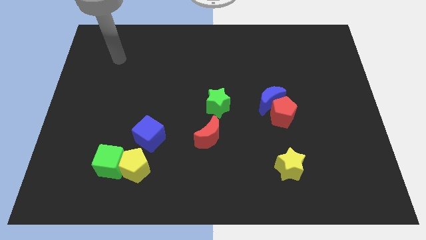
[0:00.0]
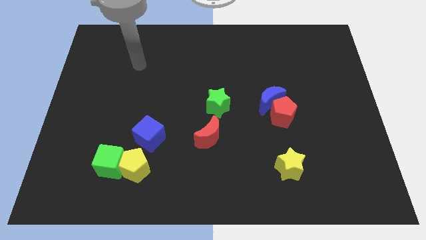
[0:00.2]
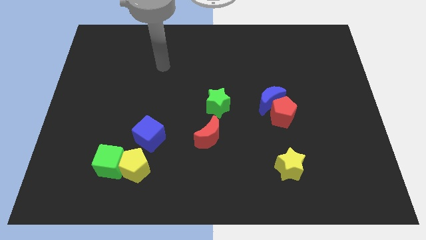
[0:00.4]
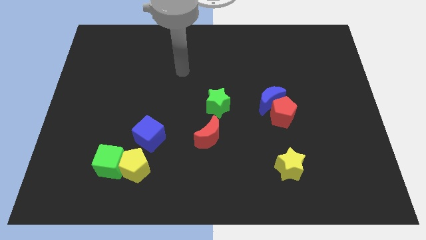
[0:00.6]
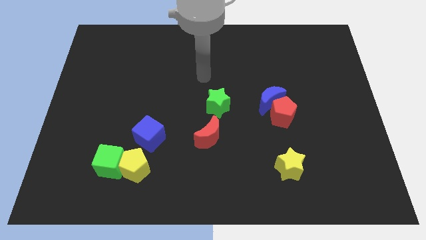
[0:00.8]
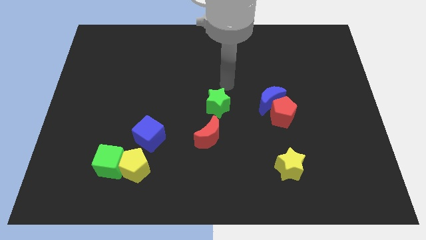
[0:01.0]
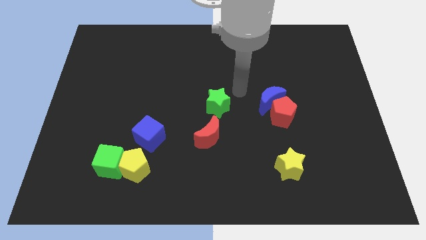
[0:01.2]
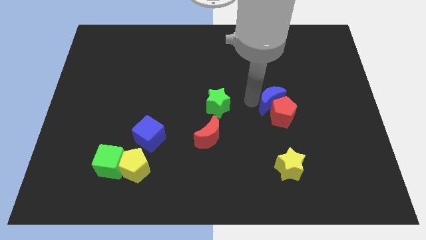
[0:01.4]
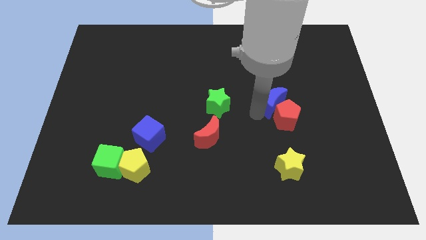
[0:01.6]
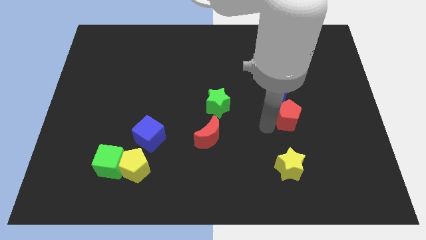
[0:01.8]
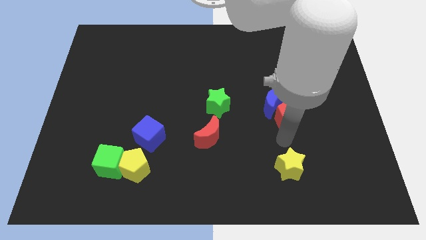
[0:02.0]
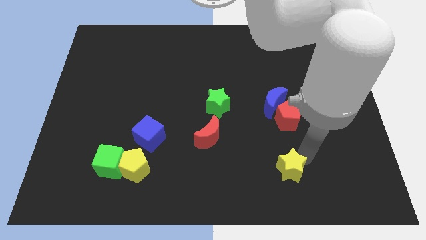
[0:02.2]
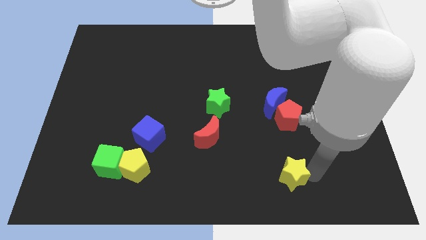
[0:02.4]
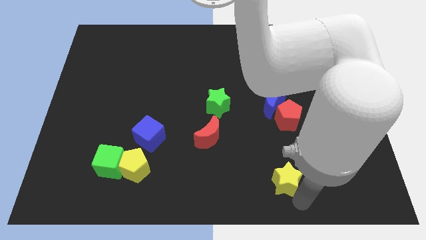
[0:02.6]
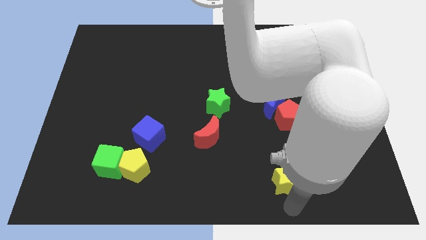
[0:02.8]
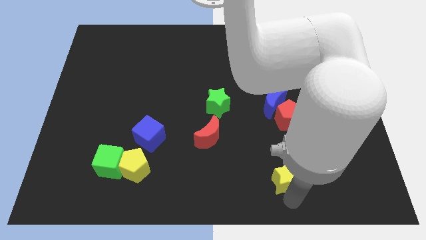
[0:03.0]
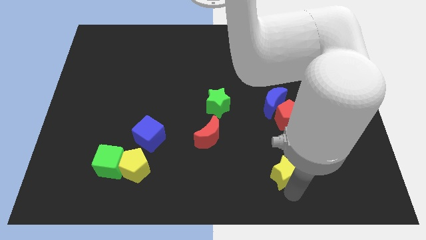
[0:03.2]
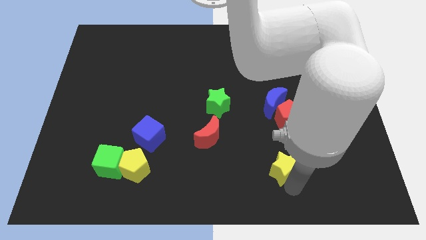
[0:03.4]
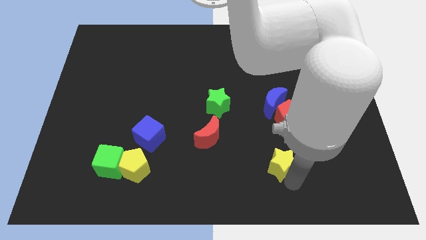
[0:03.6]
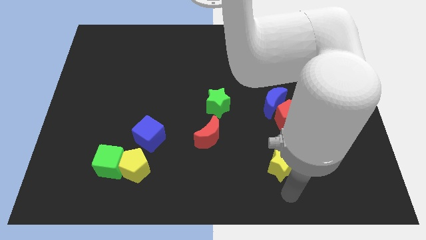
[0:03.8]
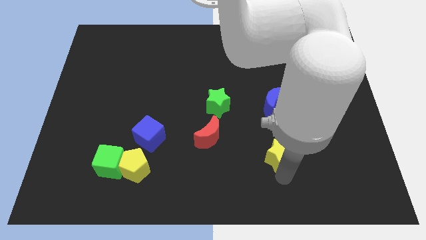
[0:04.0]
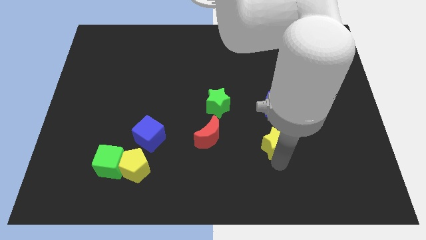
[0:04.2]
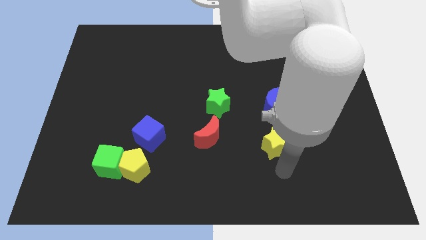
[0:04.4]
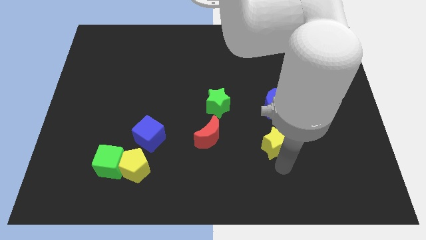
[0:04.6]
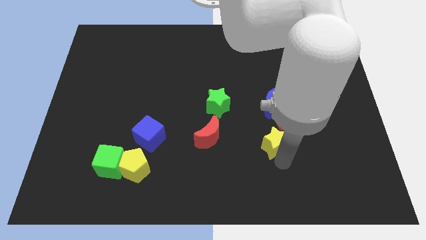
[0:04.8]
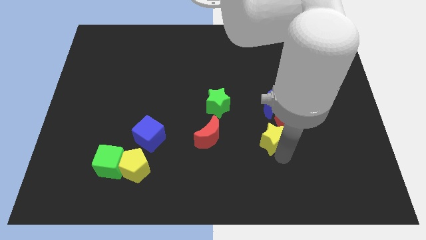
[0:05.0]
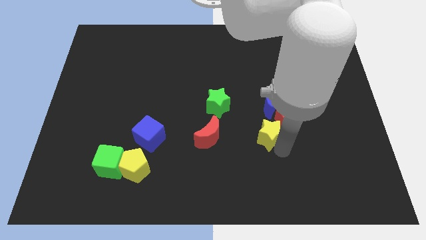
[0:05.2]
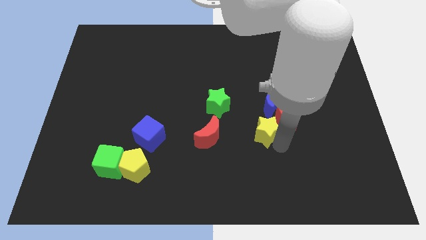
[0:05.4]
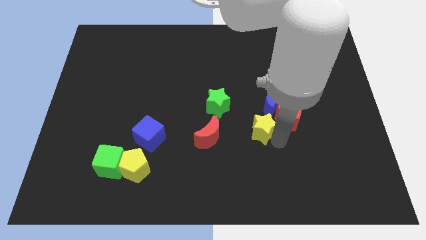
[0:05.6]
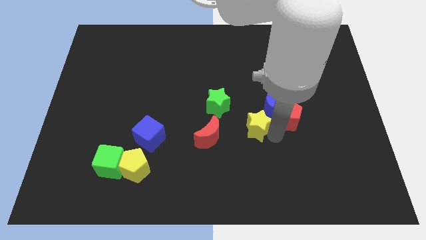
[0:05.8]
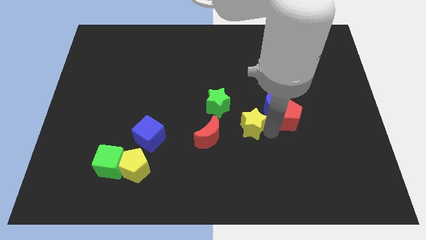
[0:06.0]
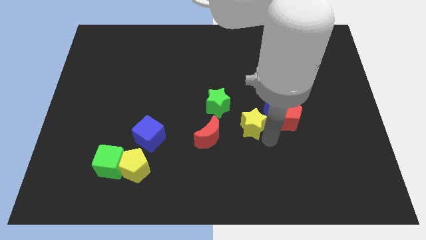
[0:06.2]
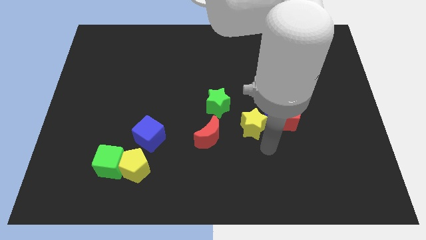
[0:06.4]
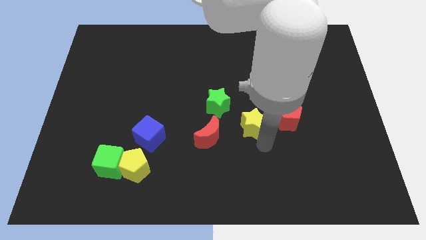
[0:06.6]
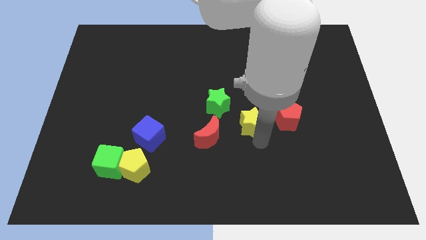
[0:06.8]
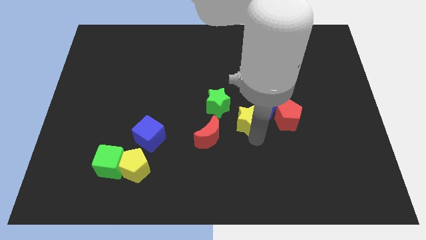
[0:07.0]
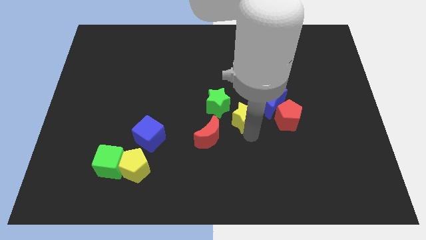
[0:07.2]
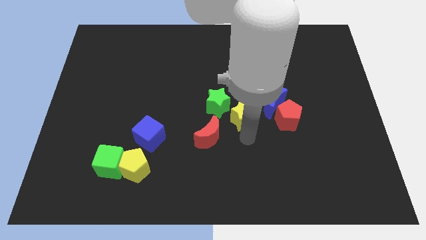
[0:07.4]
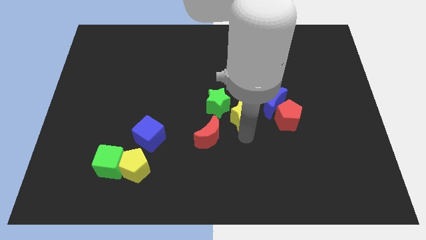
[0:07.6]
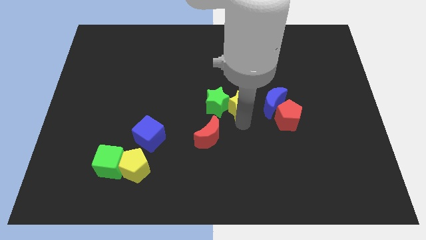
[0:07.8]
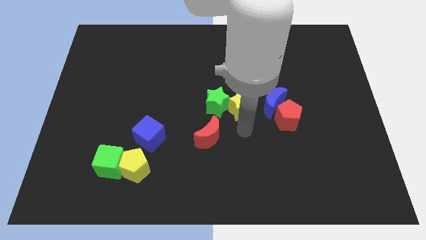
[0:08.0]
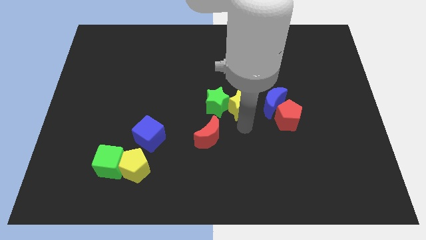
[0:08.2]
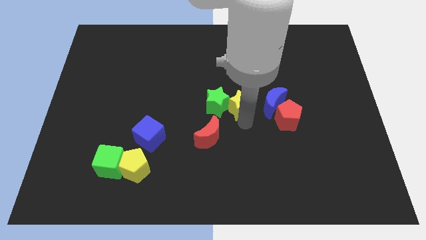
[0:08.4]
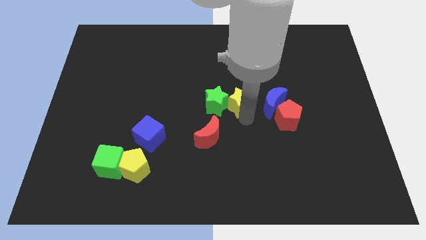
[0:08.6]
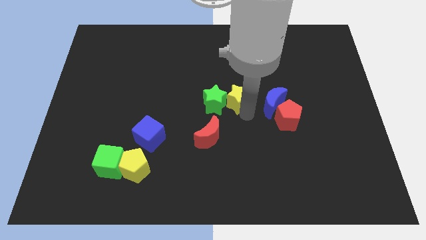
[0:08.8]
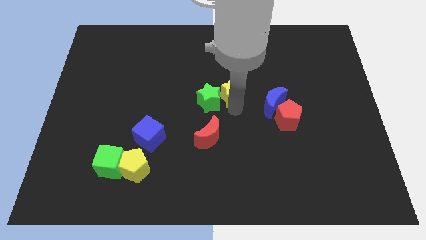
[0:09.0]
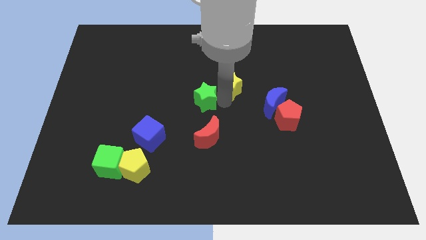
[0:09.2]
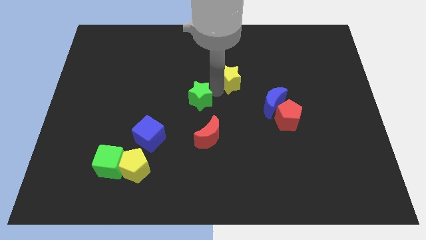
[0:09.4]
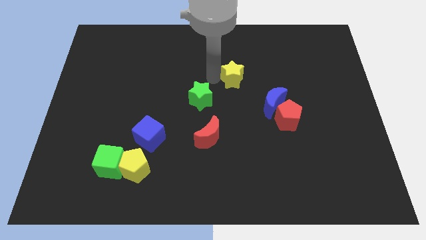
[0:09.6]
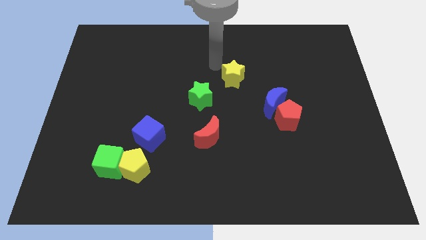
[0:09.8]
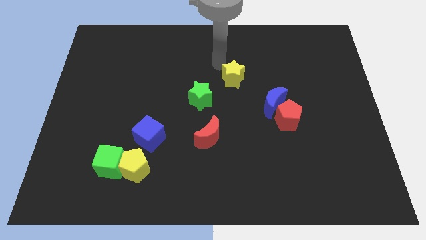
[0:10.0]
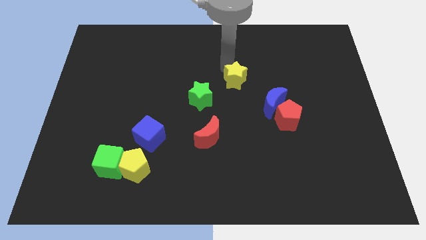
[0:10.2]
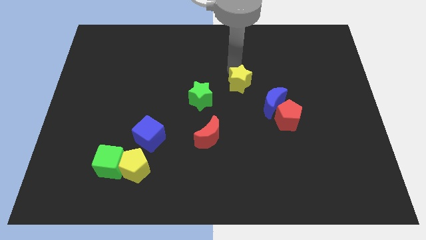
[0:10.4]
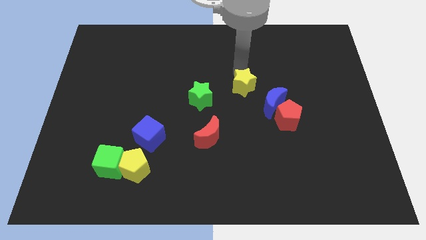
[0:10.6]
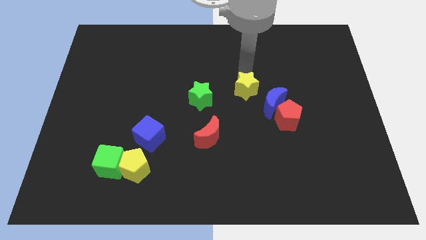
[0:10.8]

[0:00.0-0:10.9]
put the yellow star diagonally up and to the left of the red pentagon

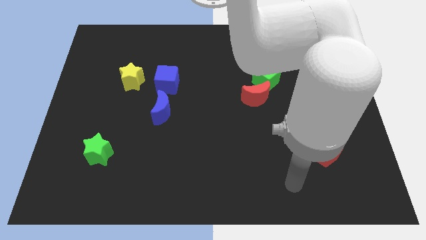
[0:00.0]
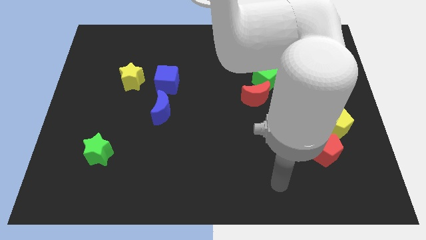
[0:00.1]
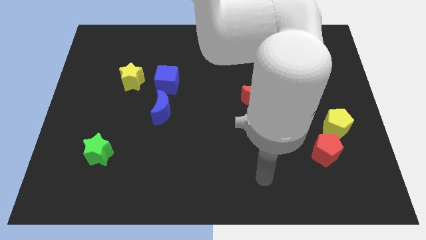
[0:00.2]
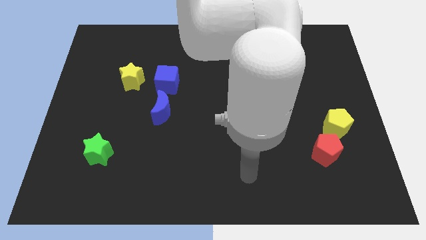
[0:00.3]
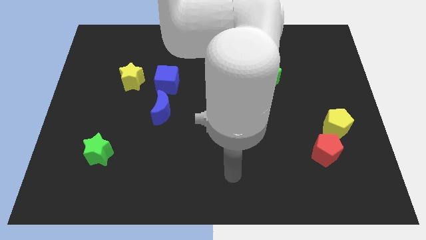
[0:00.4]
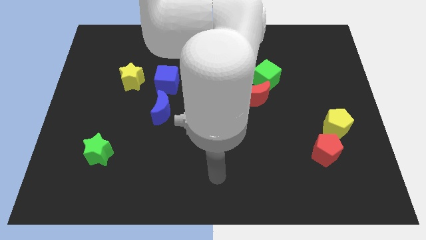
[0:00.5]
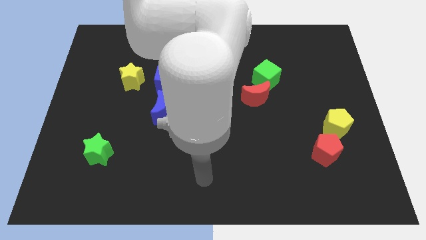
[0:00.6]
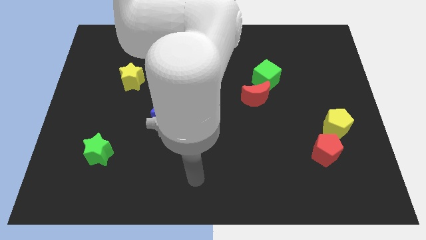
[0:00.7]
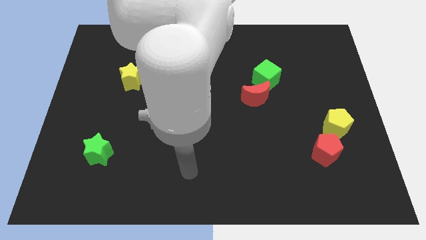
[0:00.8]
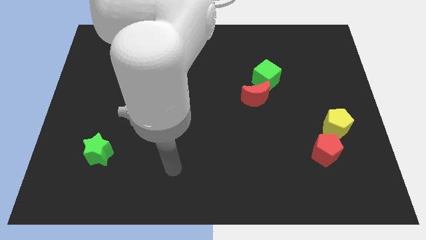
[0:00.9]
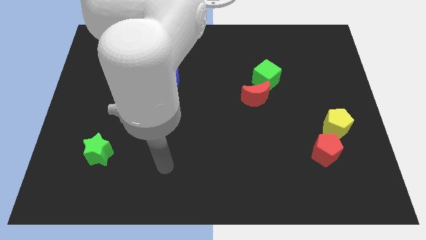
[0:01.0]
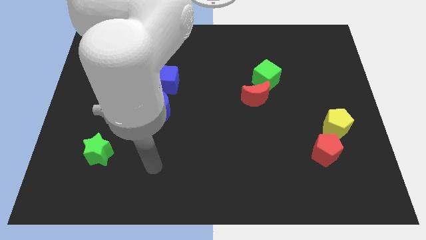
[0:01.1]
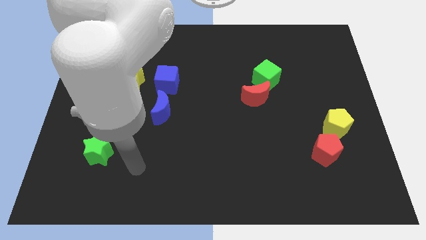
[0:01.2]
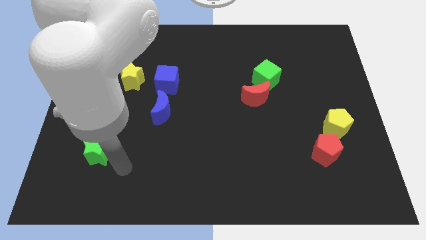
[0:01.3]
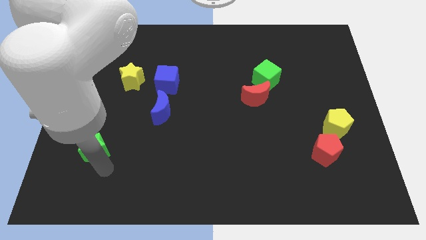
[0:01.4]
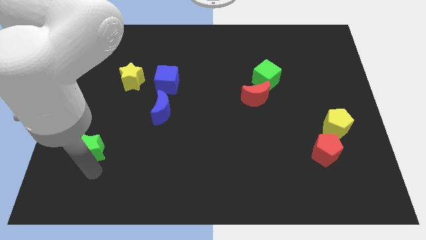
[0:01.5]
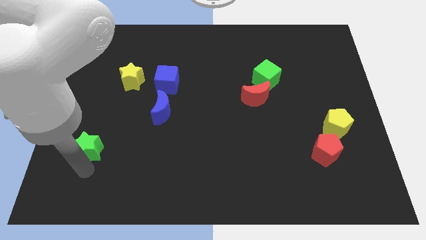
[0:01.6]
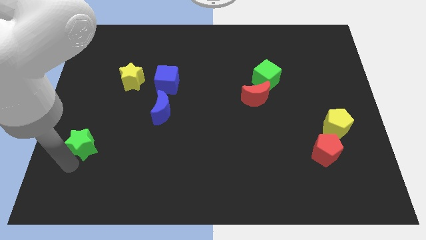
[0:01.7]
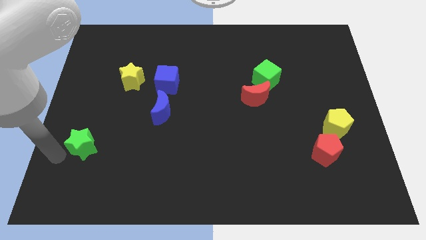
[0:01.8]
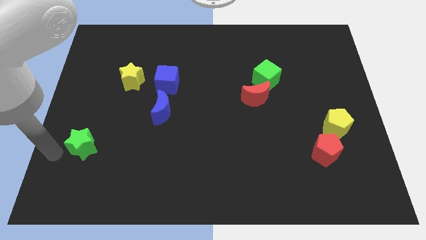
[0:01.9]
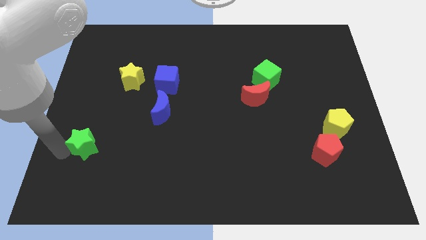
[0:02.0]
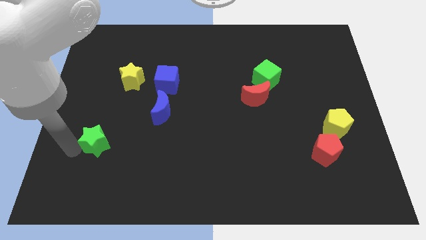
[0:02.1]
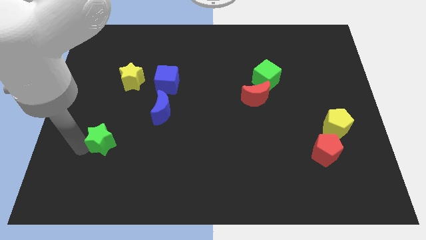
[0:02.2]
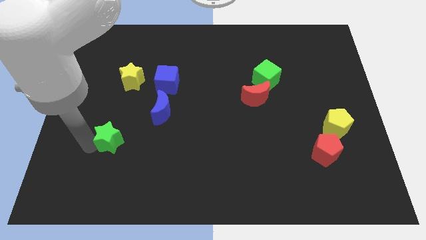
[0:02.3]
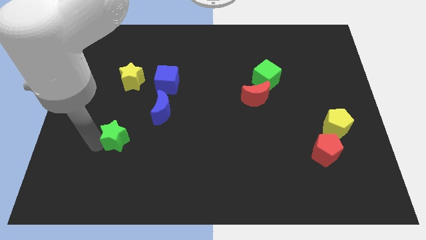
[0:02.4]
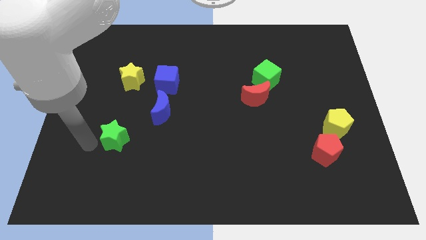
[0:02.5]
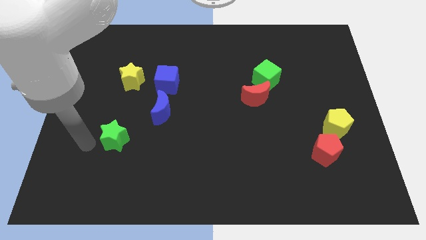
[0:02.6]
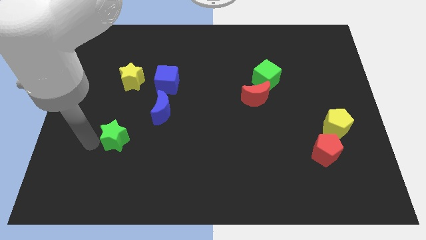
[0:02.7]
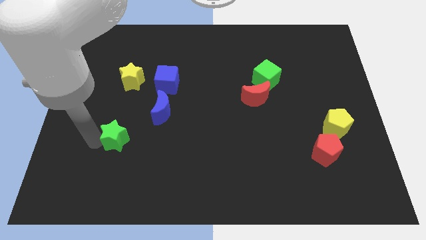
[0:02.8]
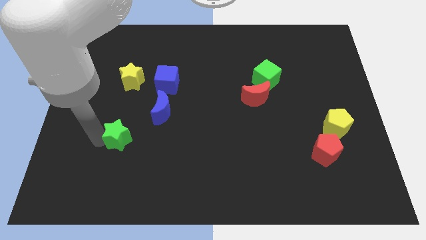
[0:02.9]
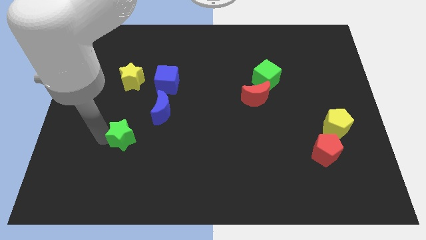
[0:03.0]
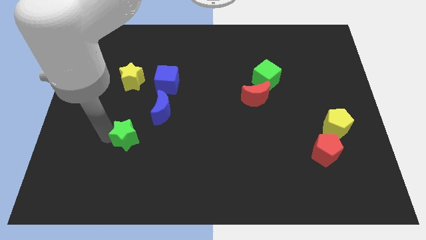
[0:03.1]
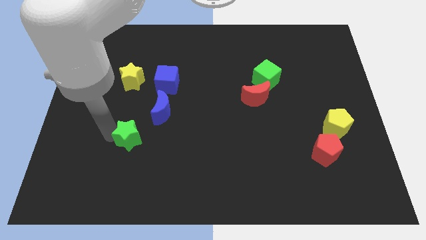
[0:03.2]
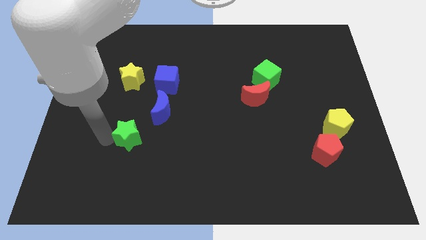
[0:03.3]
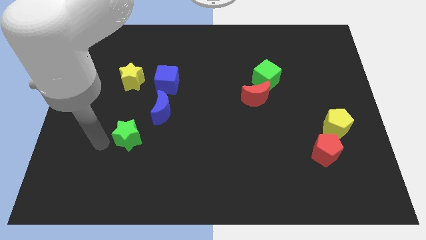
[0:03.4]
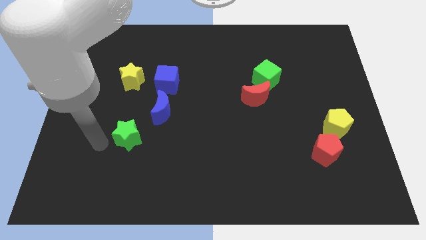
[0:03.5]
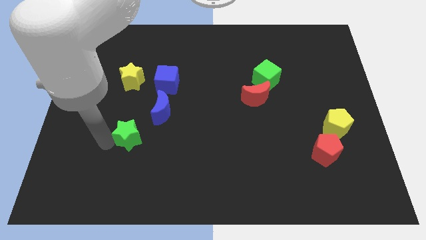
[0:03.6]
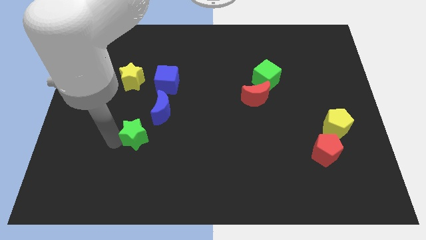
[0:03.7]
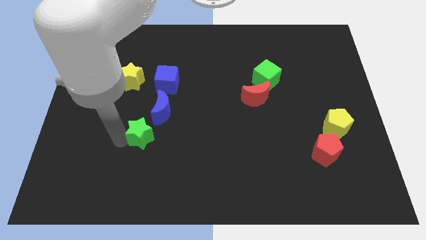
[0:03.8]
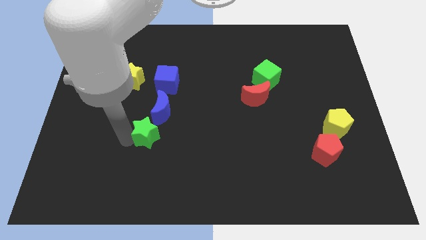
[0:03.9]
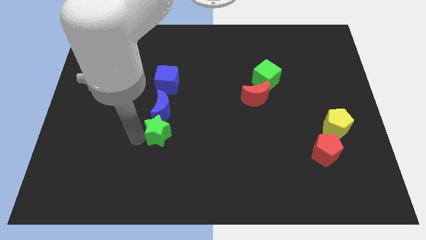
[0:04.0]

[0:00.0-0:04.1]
move the green star to the bottom right side of the blue moon
